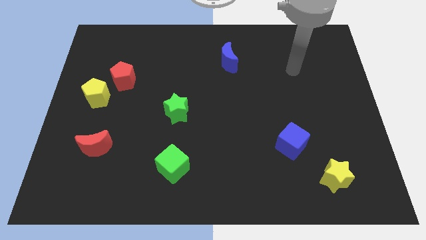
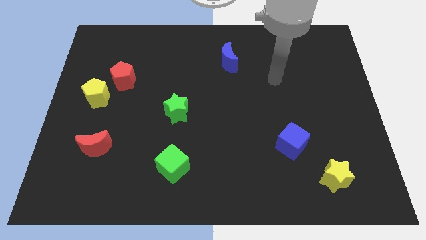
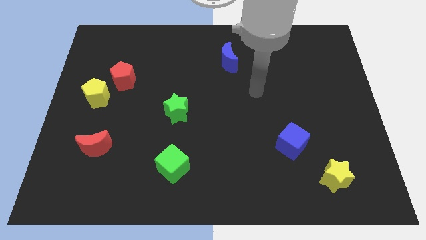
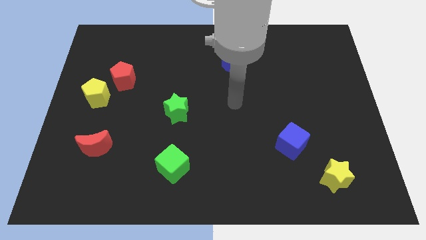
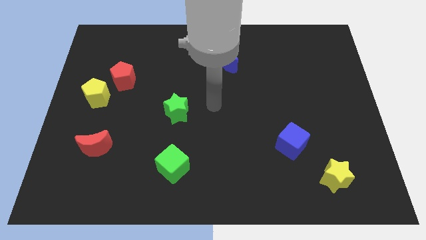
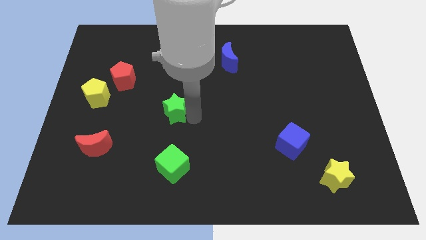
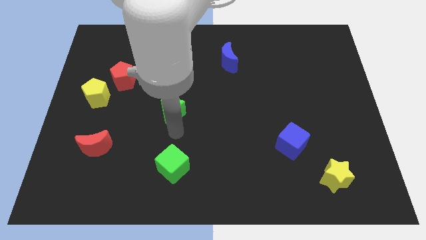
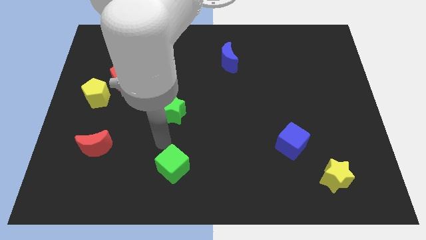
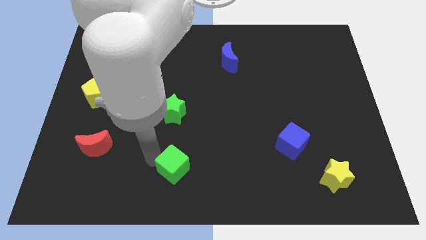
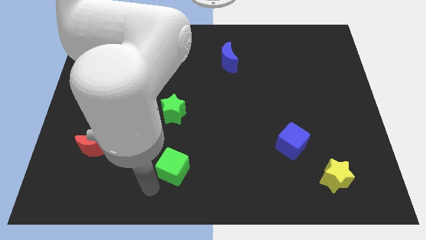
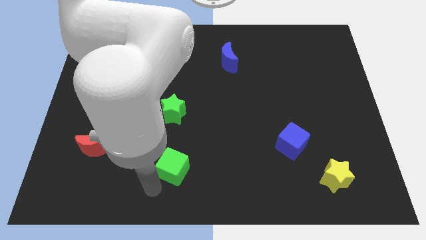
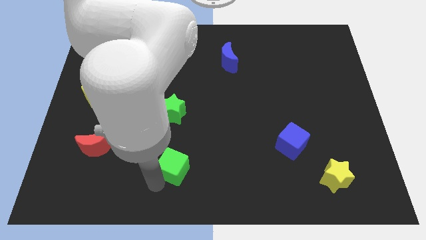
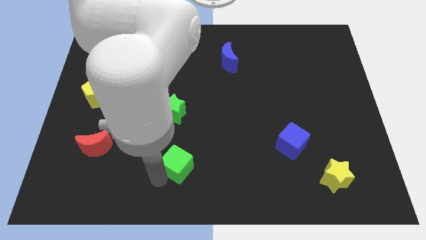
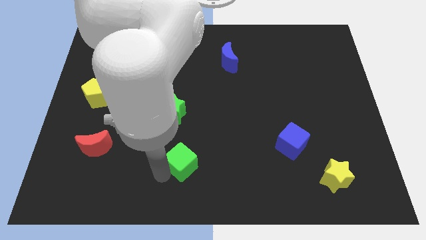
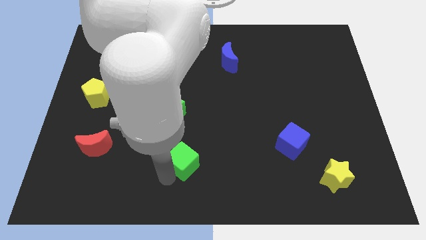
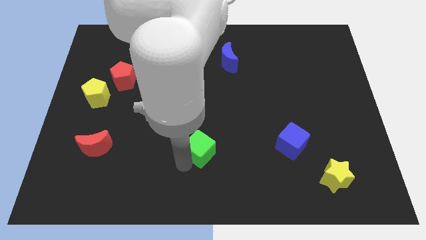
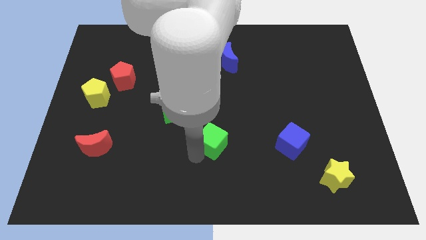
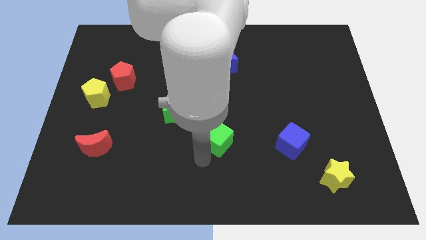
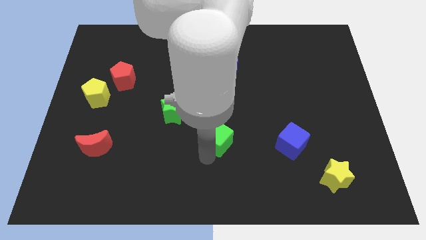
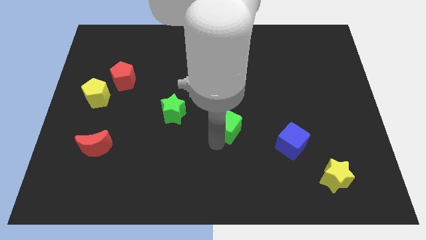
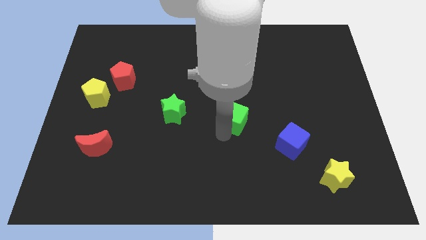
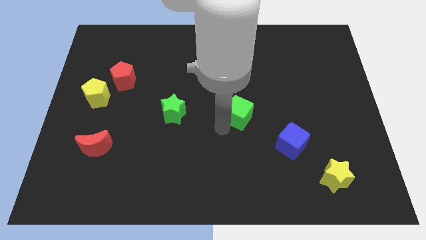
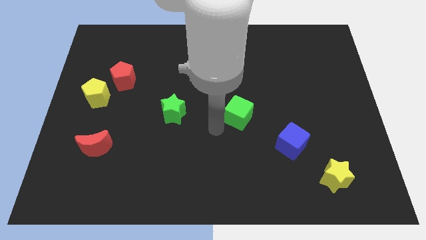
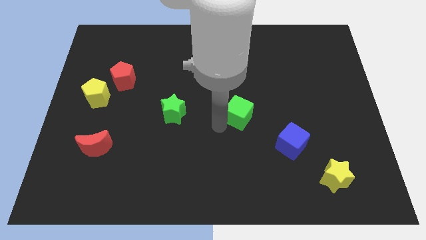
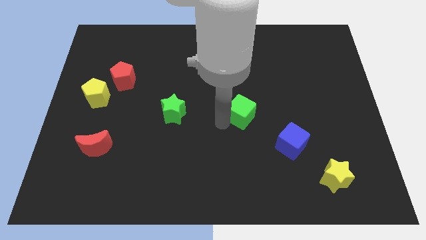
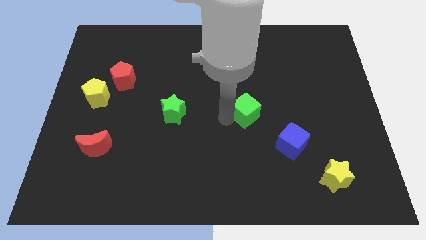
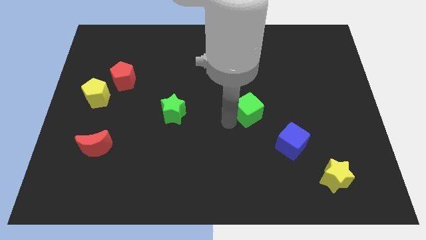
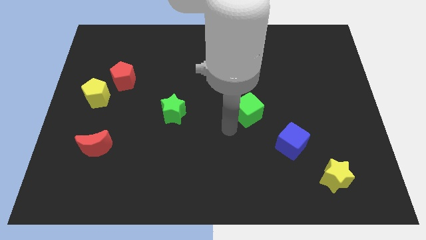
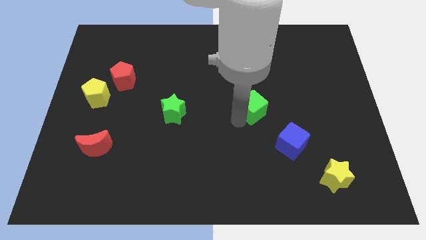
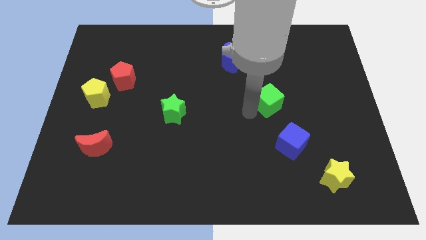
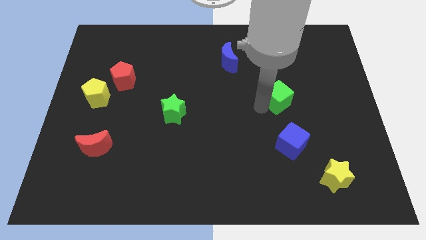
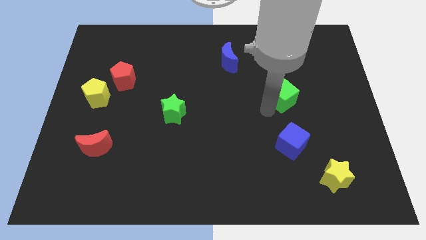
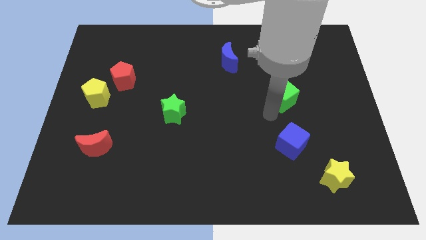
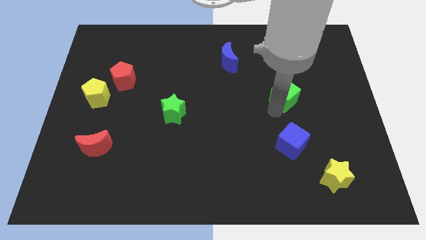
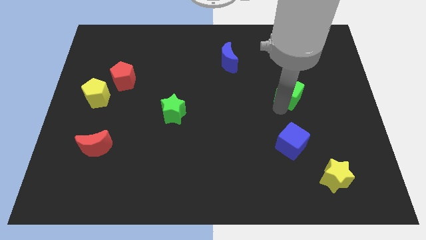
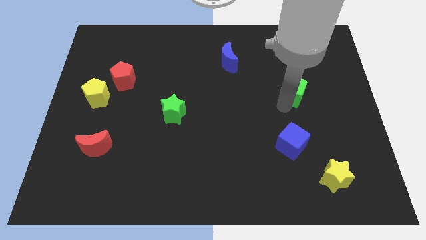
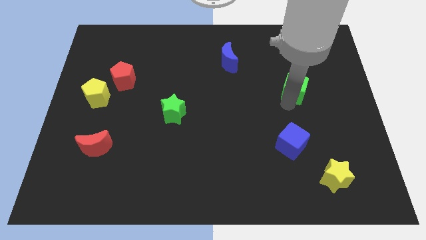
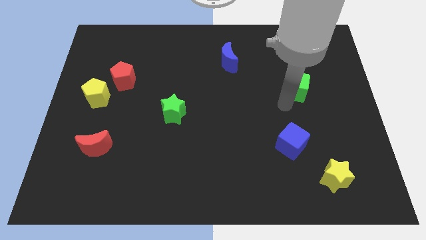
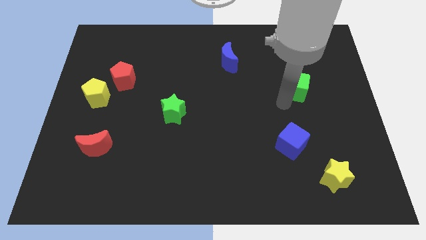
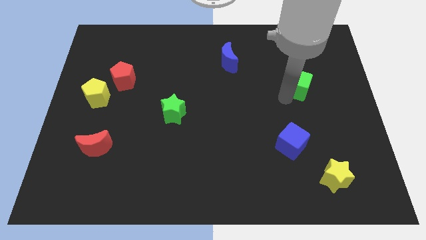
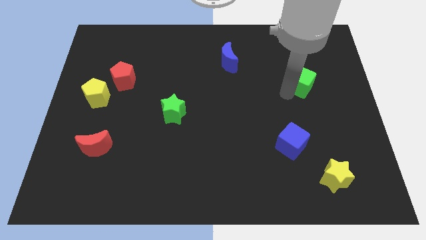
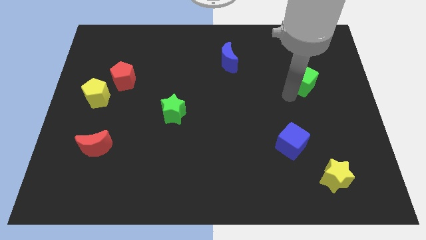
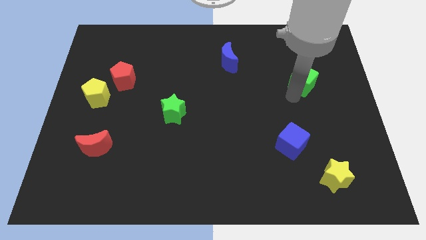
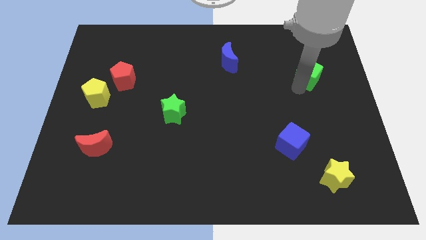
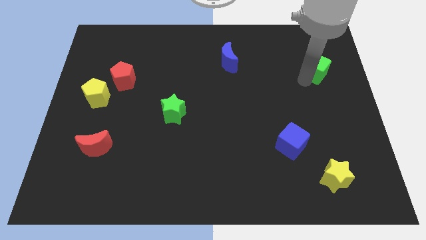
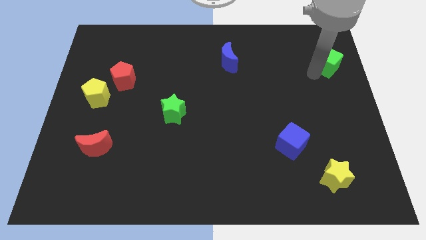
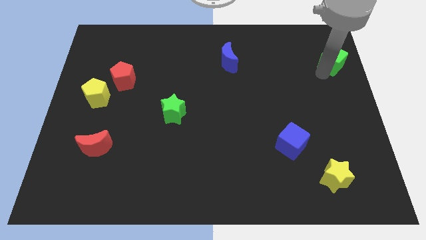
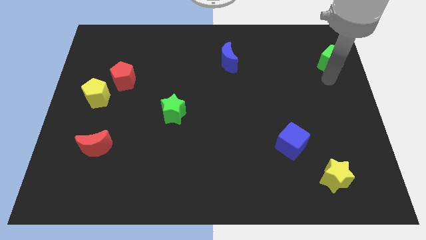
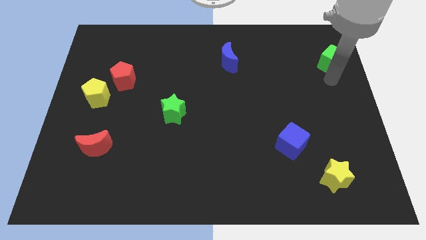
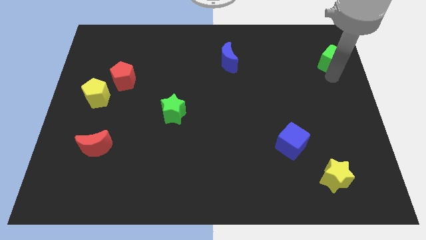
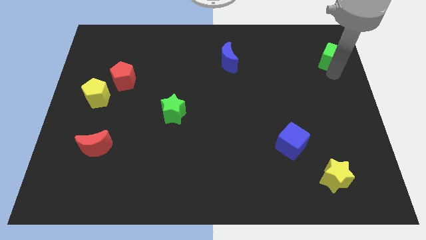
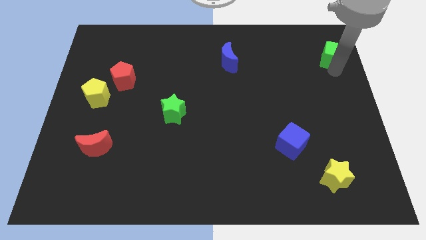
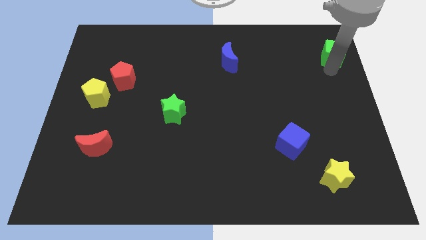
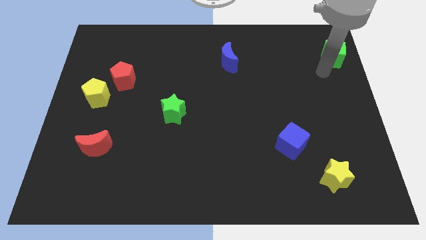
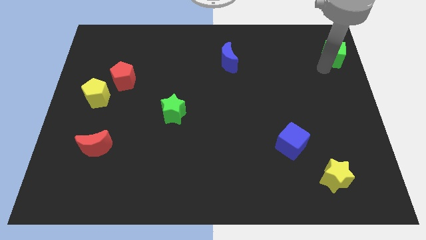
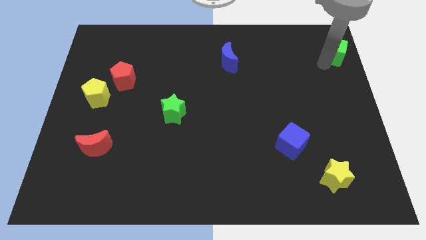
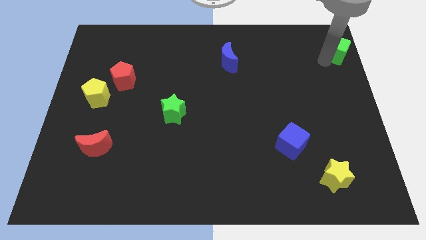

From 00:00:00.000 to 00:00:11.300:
push the green cube to the top right of the board
